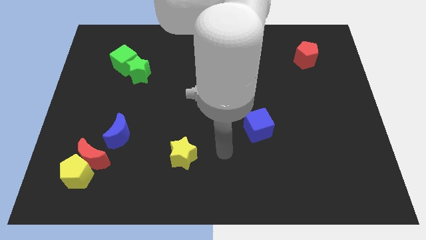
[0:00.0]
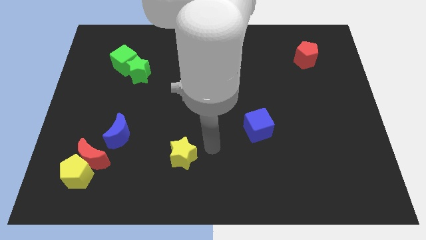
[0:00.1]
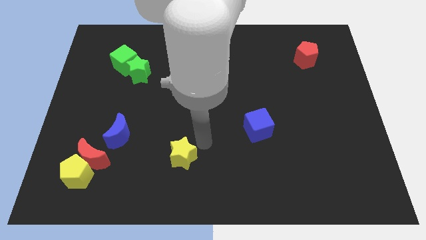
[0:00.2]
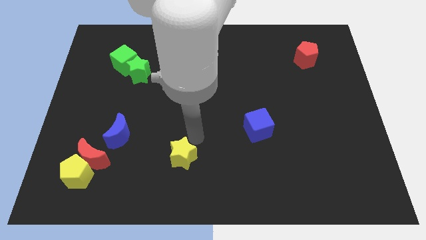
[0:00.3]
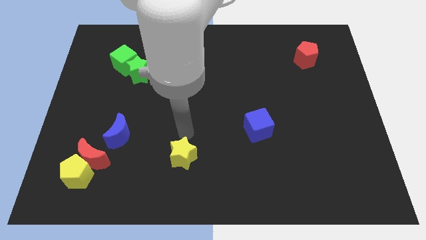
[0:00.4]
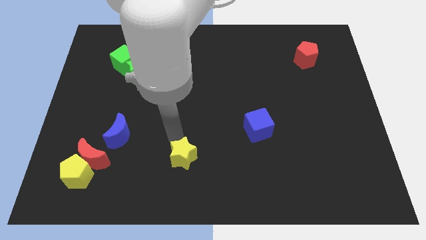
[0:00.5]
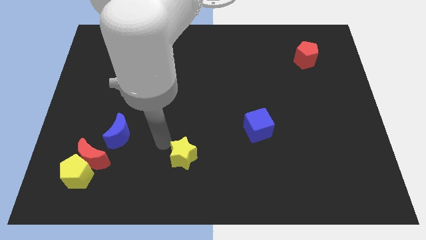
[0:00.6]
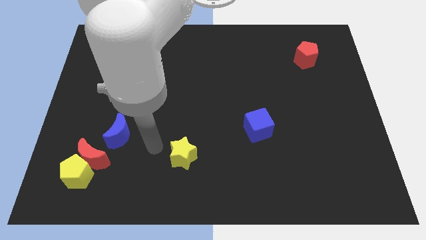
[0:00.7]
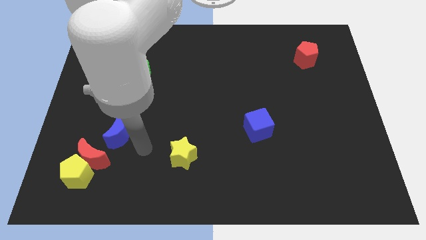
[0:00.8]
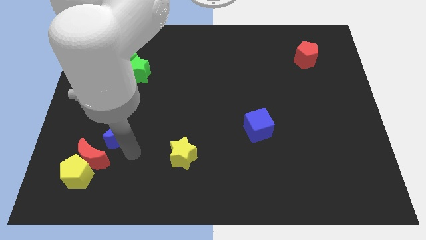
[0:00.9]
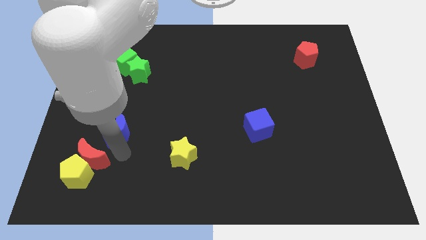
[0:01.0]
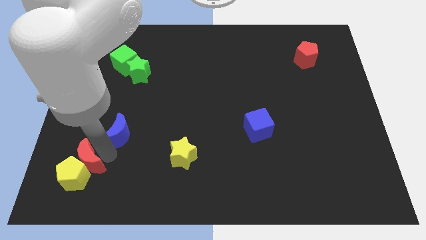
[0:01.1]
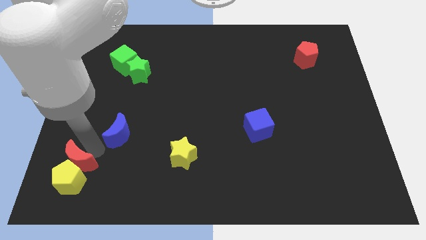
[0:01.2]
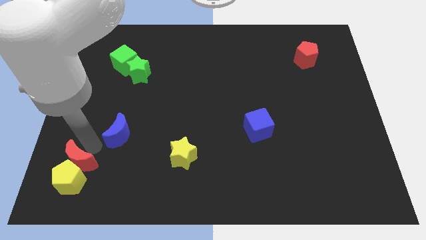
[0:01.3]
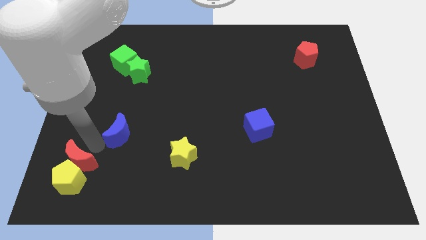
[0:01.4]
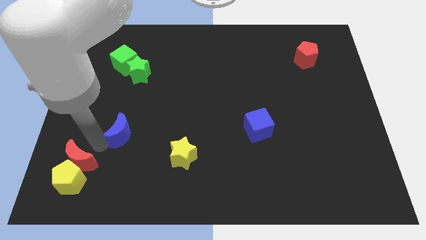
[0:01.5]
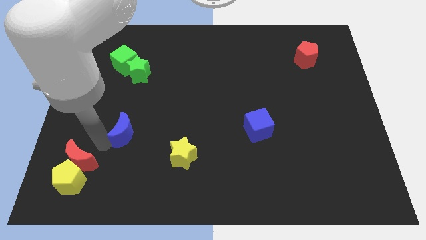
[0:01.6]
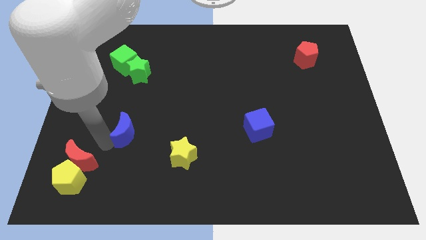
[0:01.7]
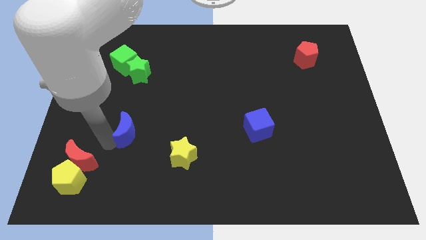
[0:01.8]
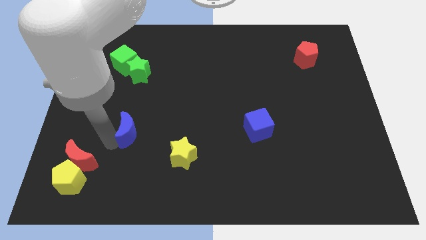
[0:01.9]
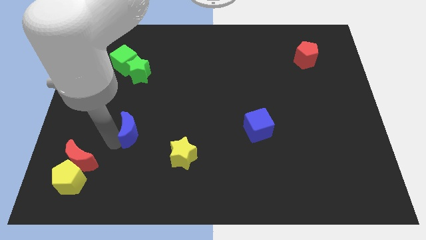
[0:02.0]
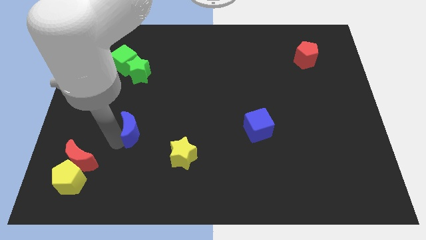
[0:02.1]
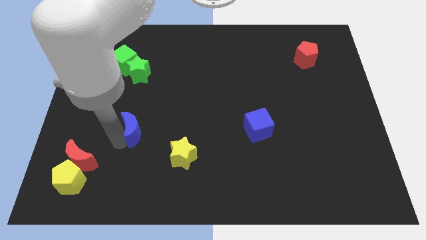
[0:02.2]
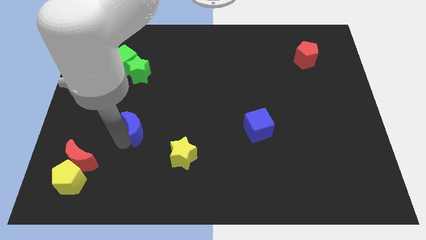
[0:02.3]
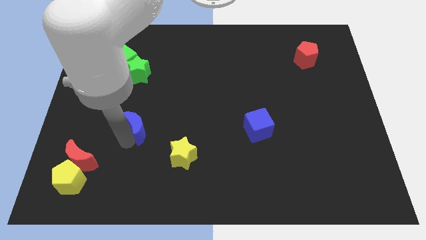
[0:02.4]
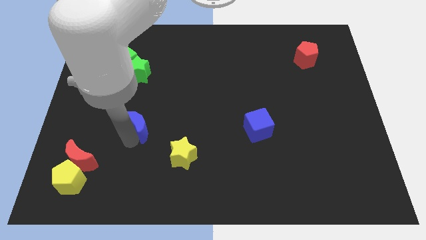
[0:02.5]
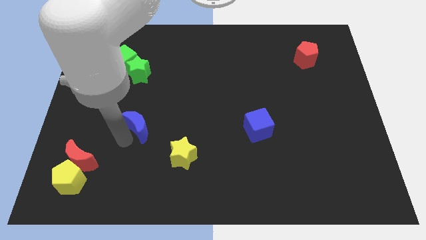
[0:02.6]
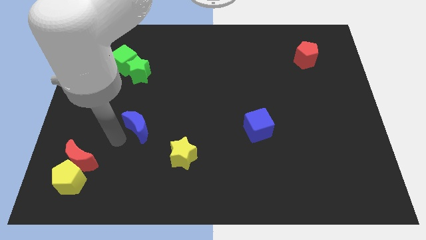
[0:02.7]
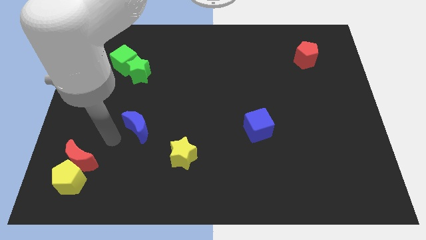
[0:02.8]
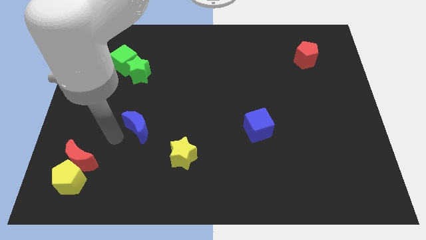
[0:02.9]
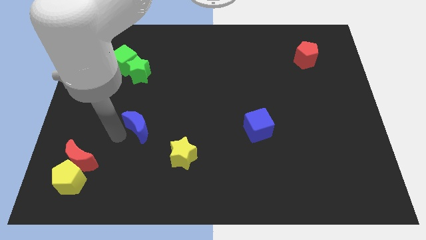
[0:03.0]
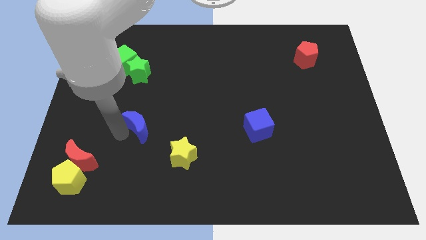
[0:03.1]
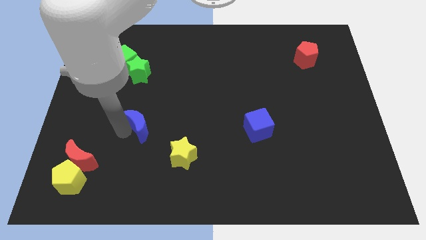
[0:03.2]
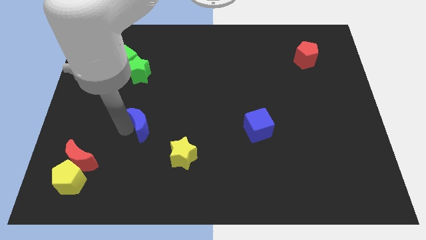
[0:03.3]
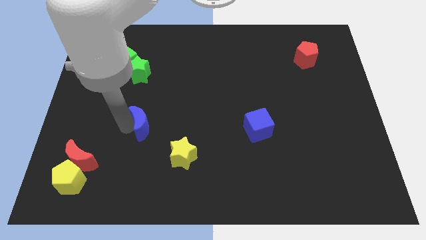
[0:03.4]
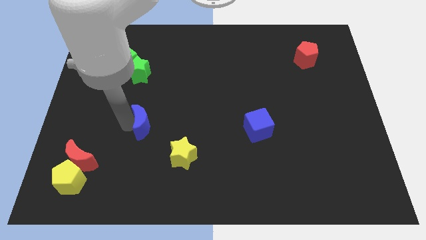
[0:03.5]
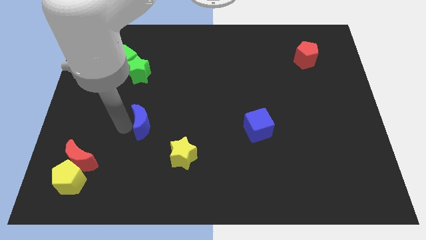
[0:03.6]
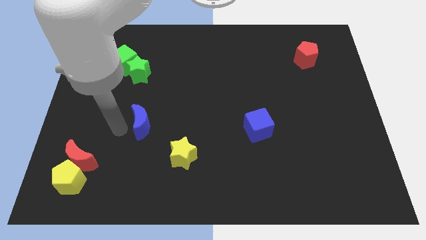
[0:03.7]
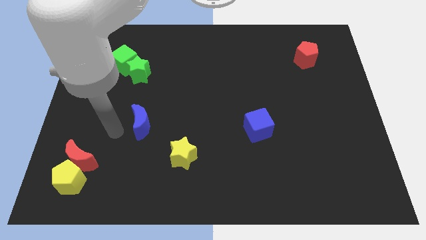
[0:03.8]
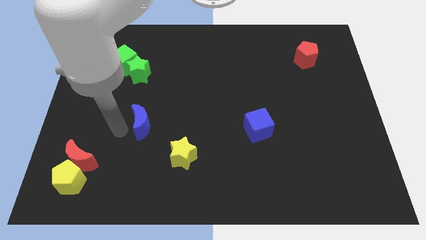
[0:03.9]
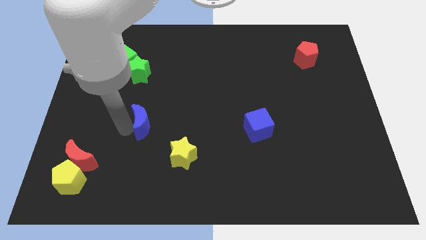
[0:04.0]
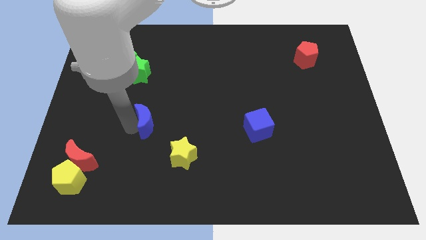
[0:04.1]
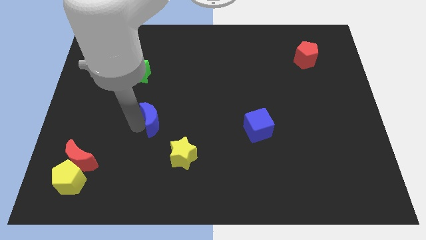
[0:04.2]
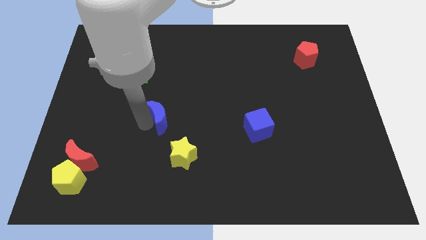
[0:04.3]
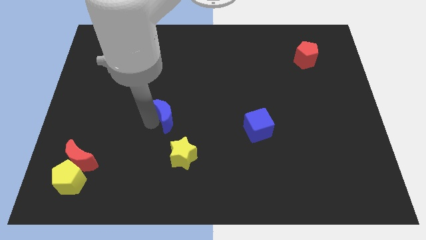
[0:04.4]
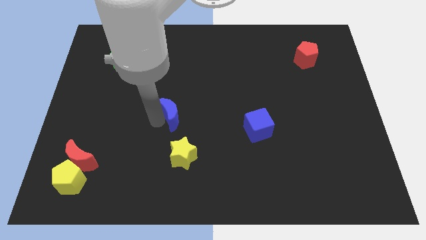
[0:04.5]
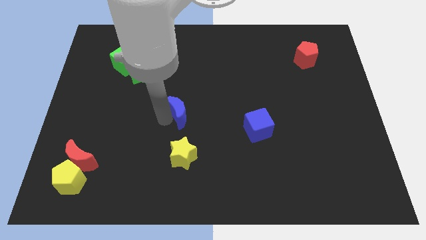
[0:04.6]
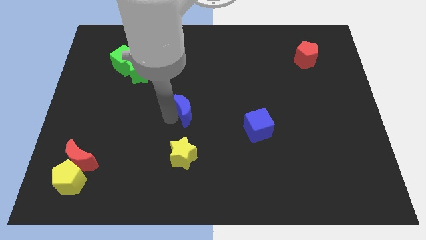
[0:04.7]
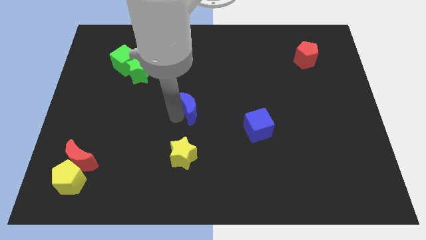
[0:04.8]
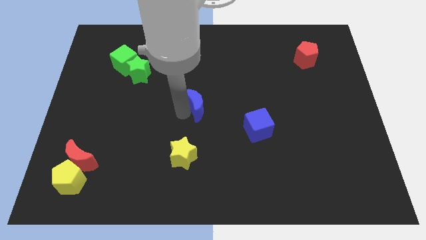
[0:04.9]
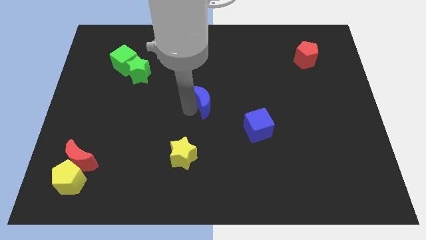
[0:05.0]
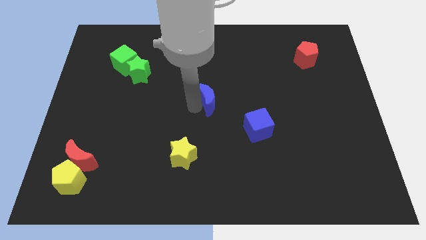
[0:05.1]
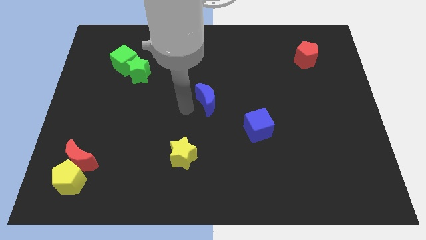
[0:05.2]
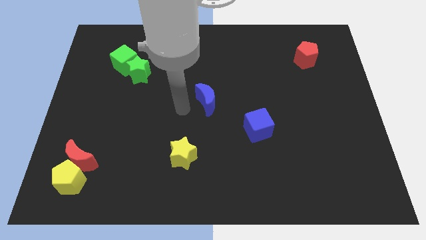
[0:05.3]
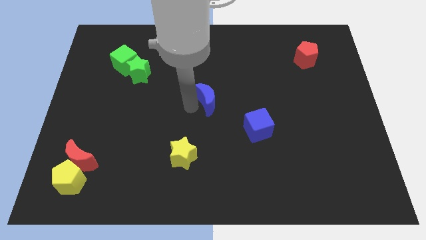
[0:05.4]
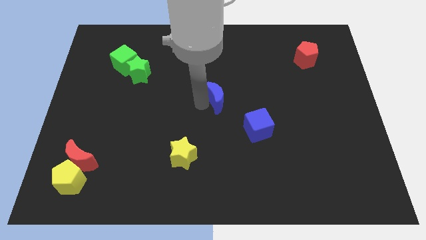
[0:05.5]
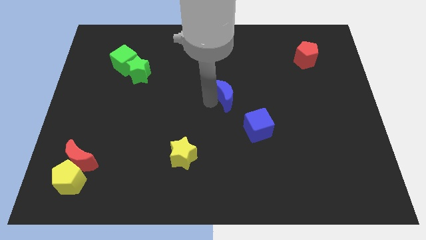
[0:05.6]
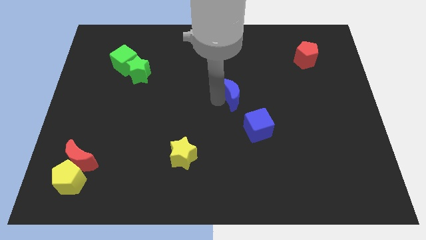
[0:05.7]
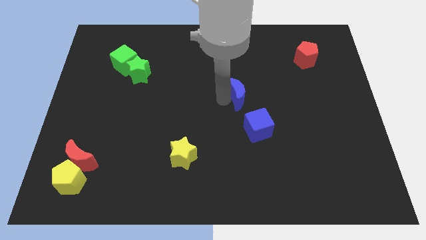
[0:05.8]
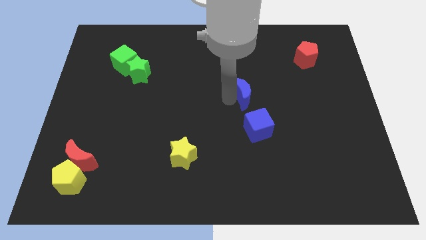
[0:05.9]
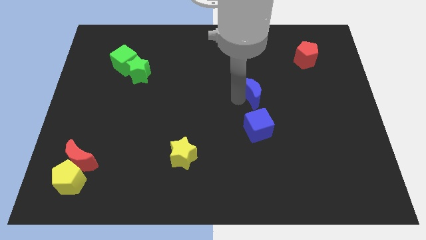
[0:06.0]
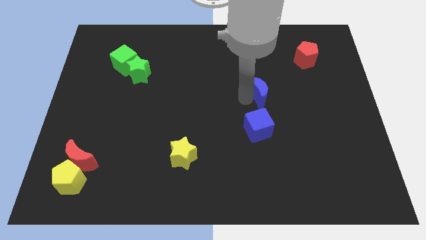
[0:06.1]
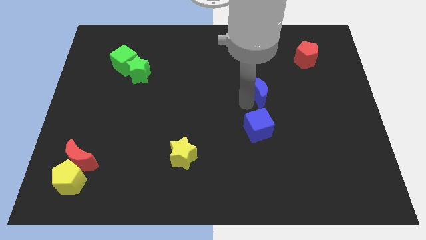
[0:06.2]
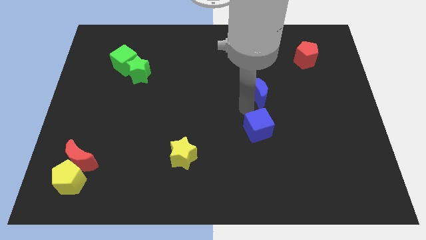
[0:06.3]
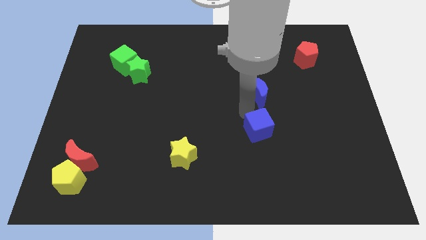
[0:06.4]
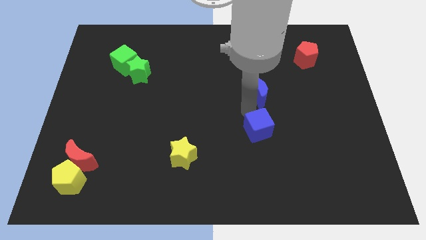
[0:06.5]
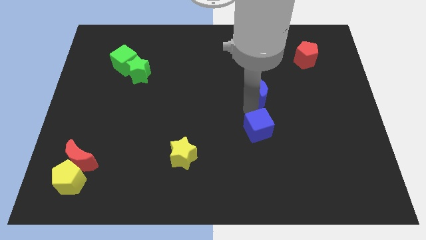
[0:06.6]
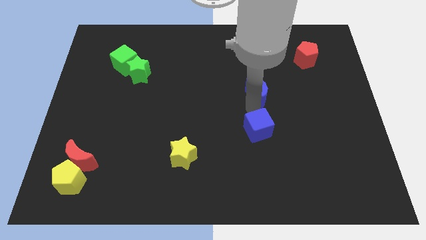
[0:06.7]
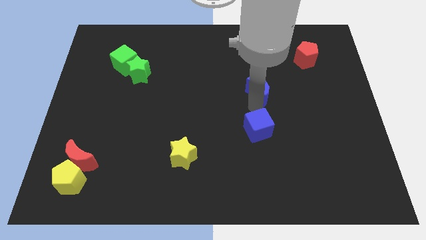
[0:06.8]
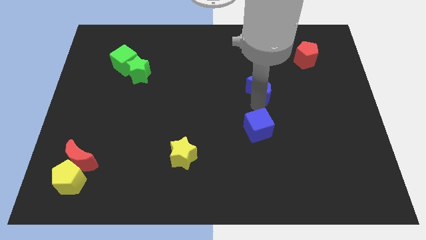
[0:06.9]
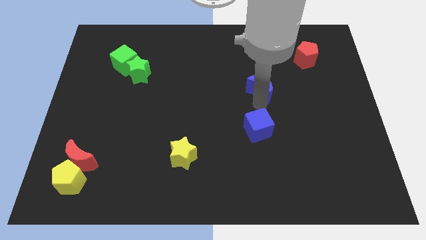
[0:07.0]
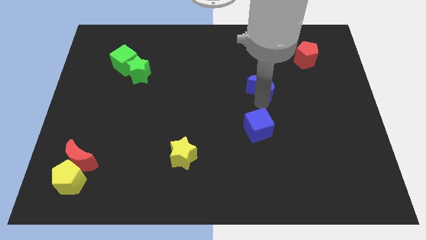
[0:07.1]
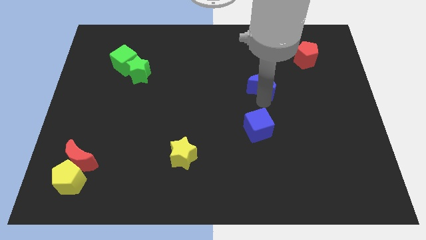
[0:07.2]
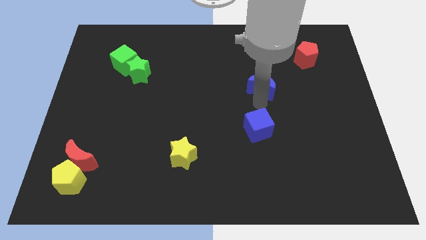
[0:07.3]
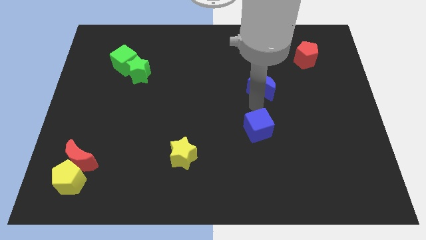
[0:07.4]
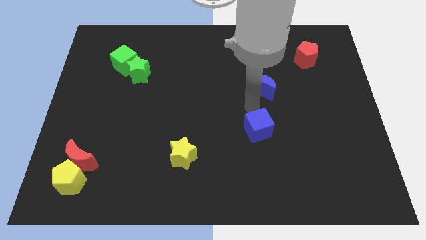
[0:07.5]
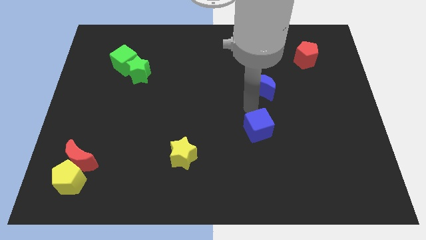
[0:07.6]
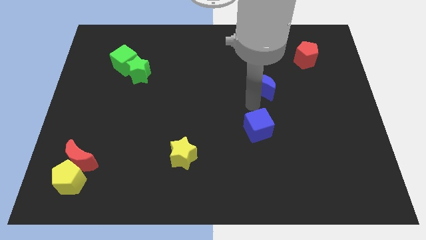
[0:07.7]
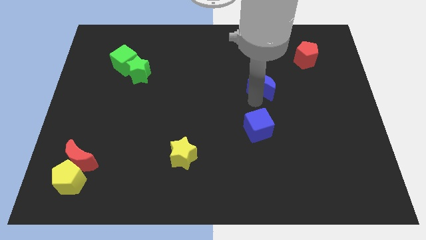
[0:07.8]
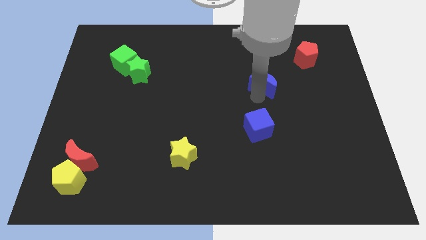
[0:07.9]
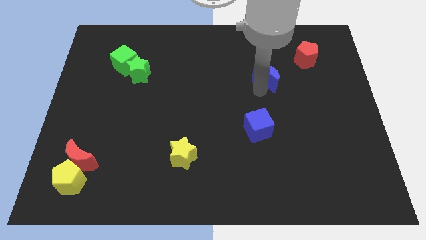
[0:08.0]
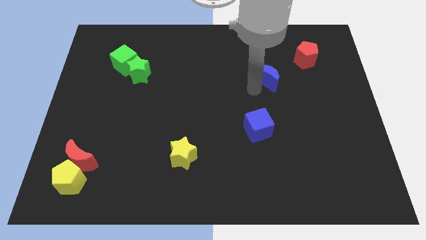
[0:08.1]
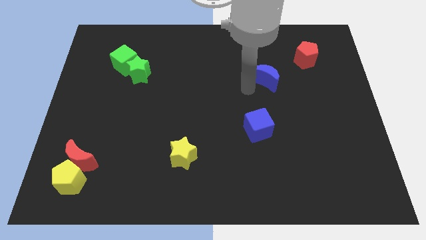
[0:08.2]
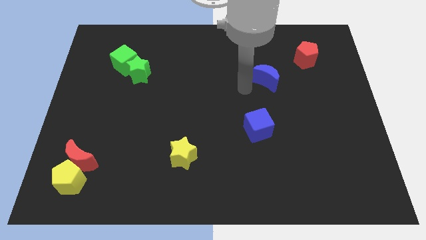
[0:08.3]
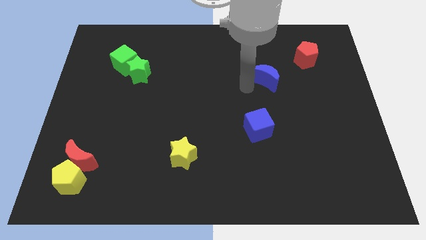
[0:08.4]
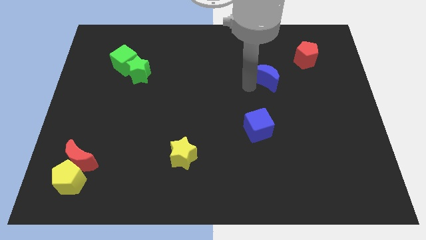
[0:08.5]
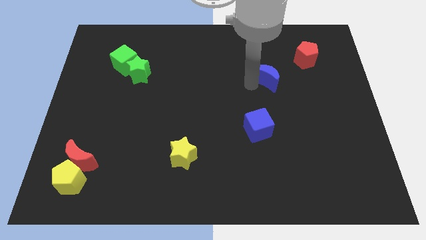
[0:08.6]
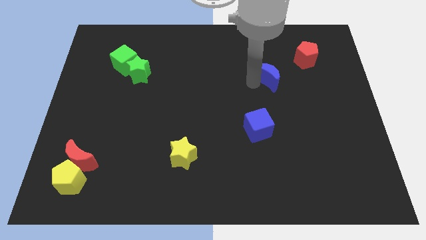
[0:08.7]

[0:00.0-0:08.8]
push the blue moon to the bottom left of the red pentagon
